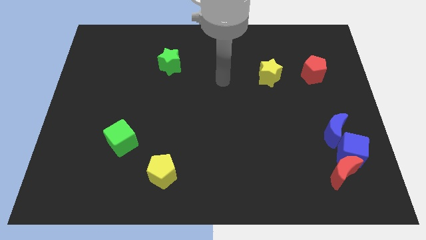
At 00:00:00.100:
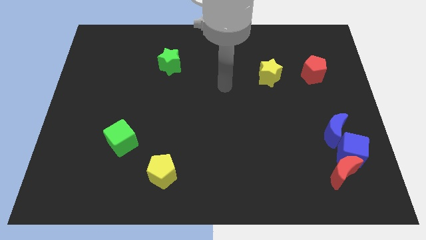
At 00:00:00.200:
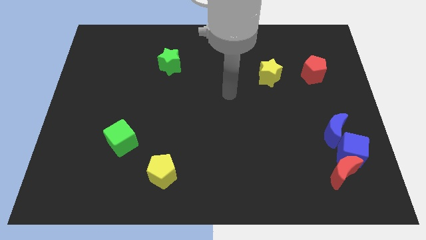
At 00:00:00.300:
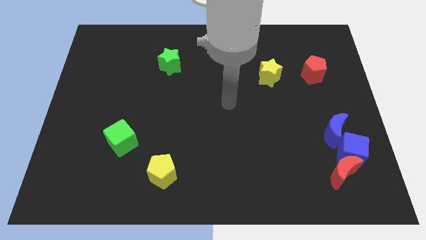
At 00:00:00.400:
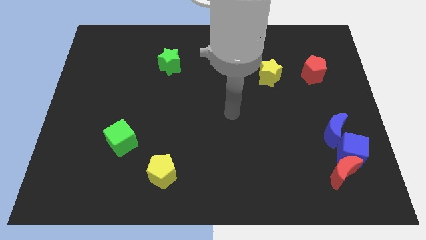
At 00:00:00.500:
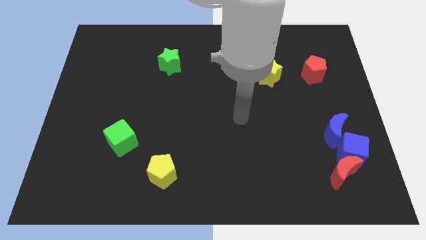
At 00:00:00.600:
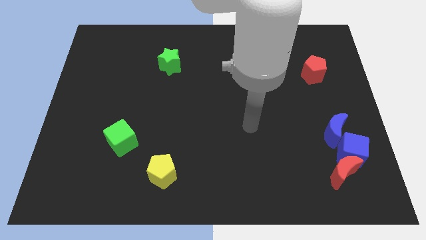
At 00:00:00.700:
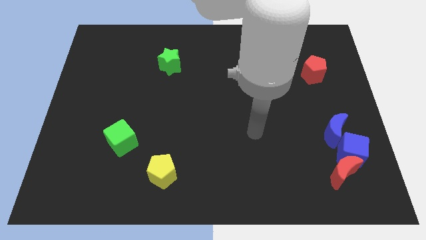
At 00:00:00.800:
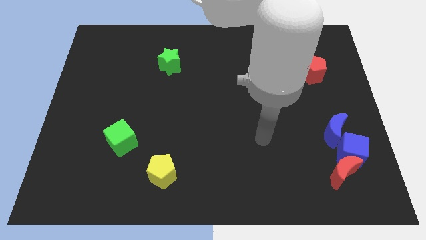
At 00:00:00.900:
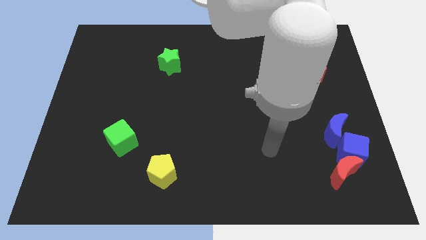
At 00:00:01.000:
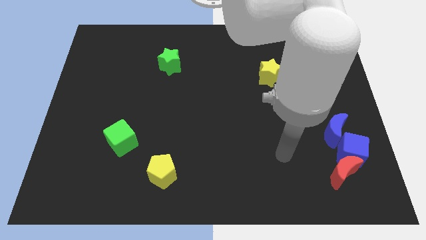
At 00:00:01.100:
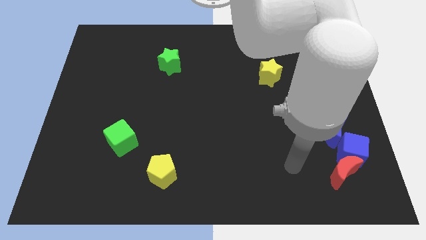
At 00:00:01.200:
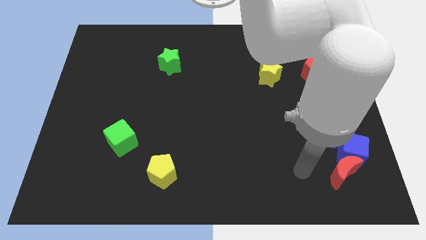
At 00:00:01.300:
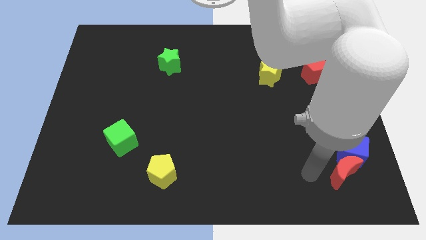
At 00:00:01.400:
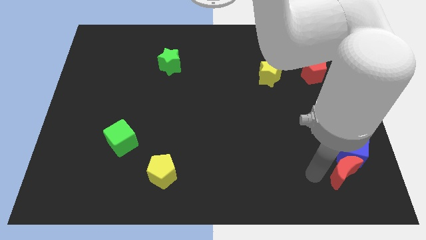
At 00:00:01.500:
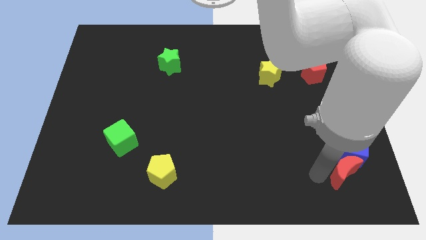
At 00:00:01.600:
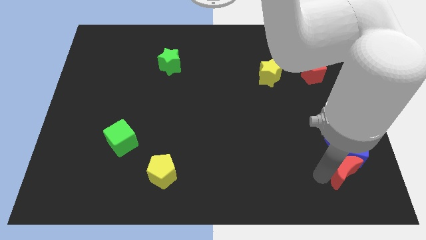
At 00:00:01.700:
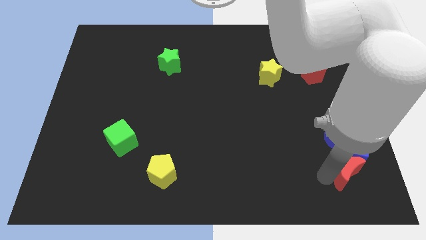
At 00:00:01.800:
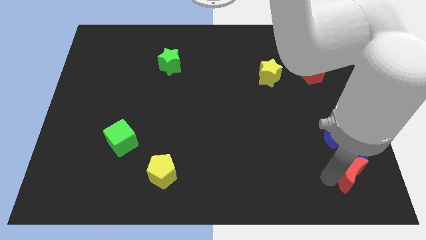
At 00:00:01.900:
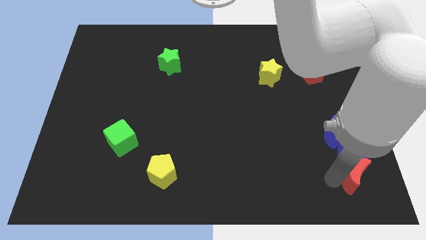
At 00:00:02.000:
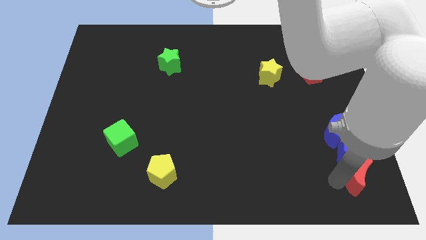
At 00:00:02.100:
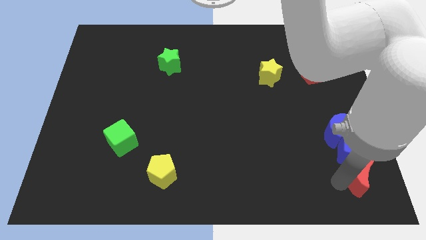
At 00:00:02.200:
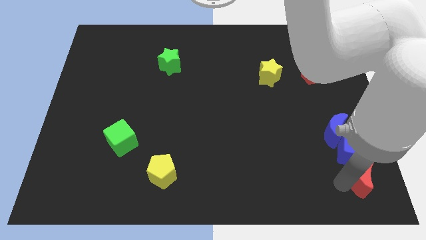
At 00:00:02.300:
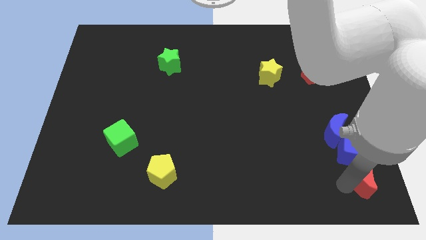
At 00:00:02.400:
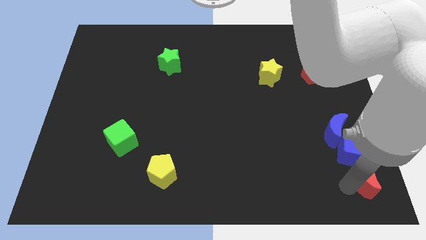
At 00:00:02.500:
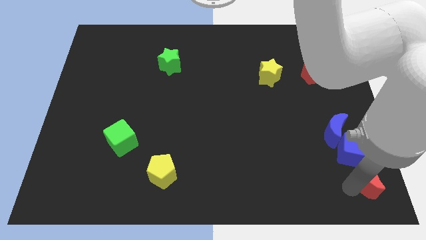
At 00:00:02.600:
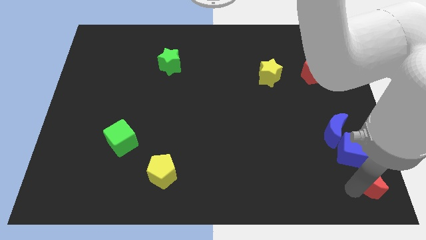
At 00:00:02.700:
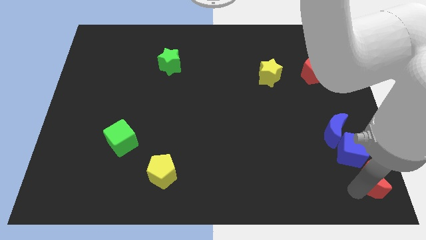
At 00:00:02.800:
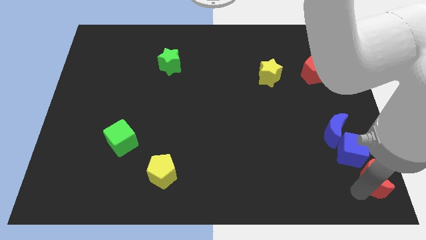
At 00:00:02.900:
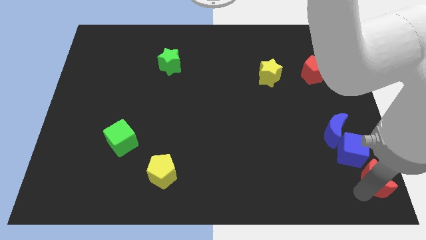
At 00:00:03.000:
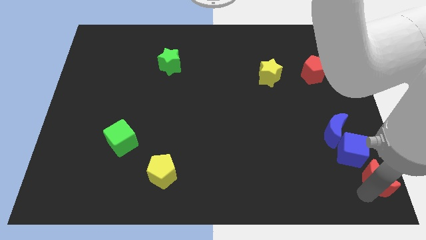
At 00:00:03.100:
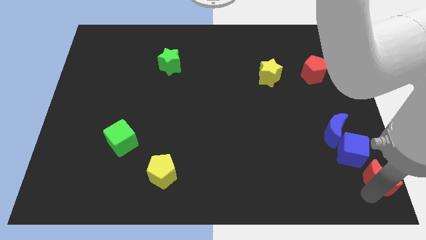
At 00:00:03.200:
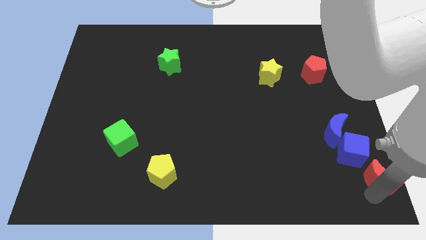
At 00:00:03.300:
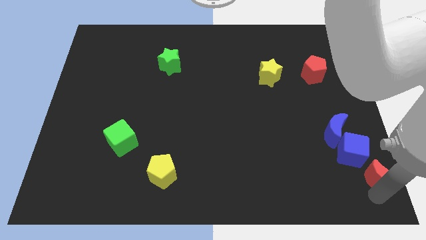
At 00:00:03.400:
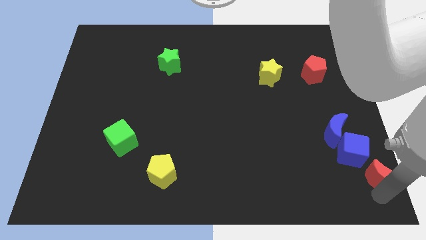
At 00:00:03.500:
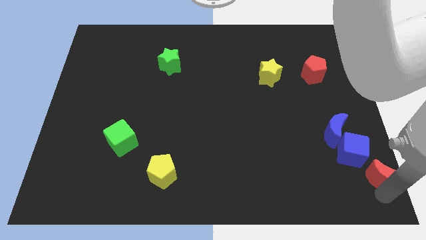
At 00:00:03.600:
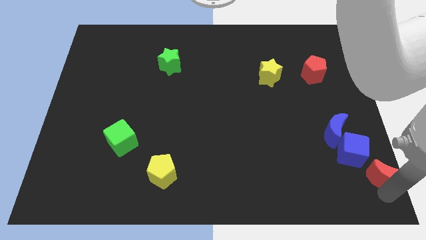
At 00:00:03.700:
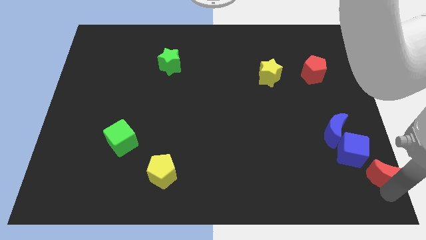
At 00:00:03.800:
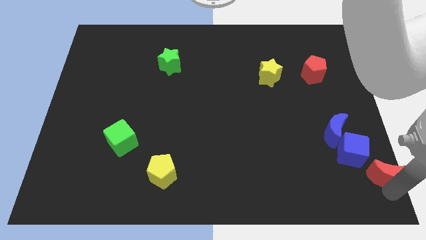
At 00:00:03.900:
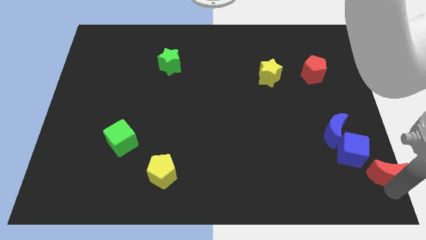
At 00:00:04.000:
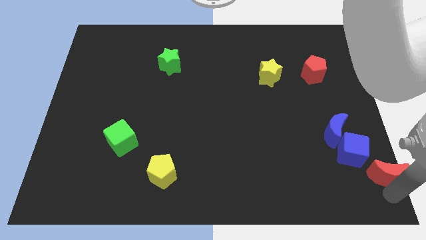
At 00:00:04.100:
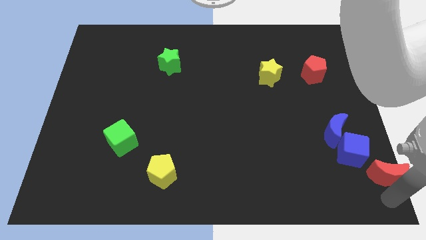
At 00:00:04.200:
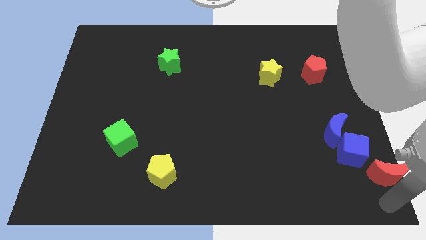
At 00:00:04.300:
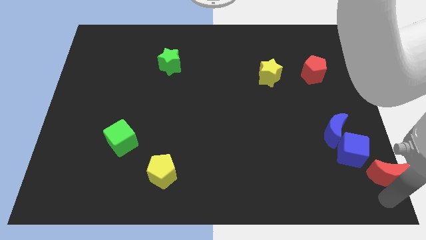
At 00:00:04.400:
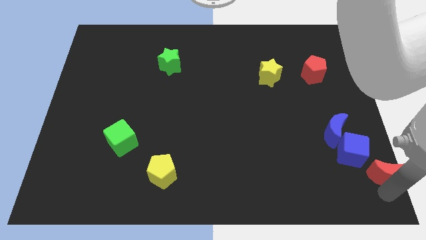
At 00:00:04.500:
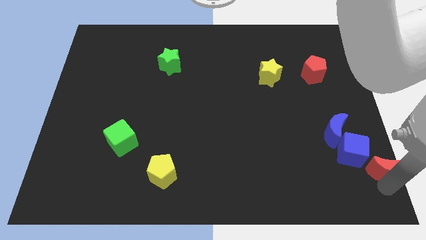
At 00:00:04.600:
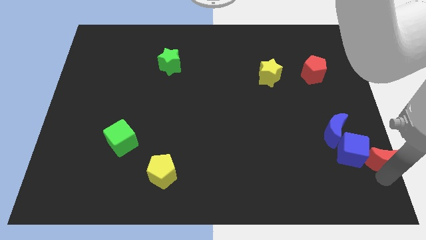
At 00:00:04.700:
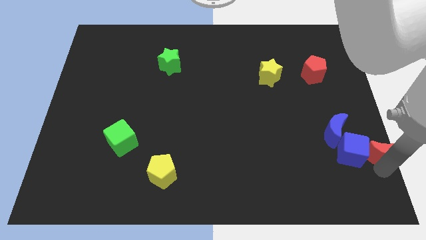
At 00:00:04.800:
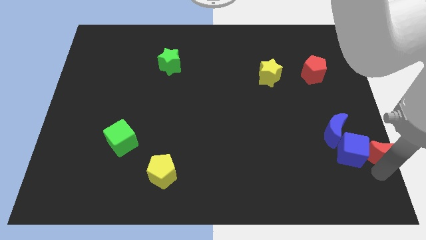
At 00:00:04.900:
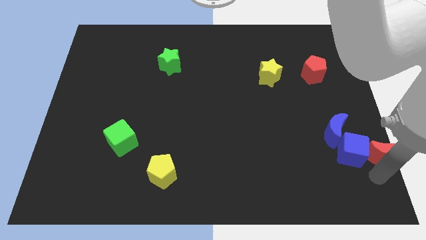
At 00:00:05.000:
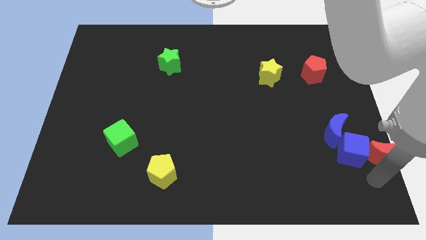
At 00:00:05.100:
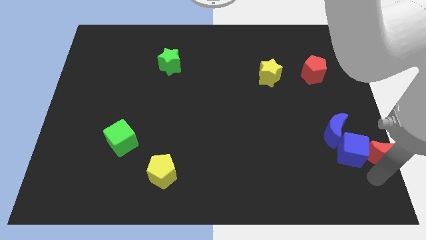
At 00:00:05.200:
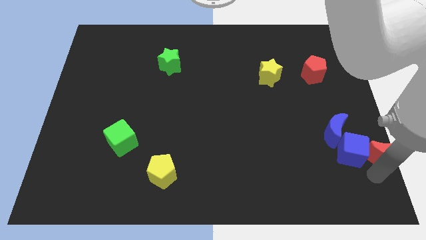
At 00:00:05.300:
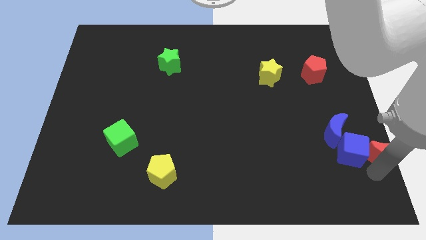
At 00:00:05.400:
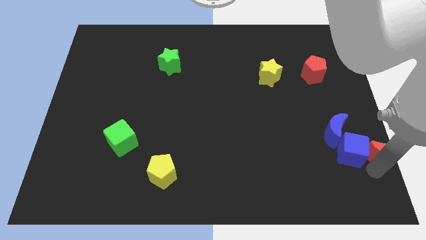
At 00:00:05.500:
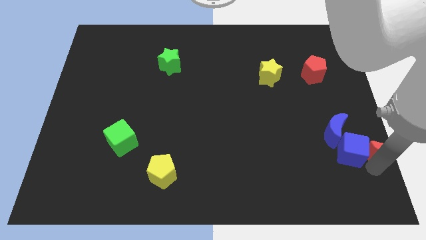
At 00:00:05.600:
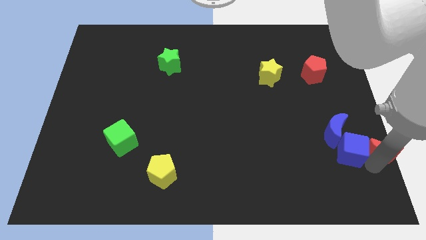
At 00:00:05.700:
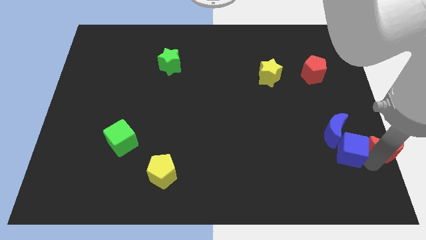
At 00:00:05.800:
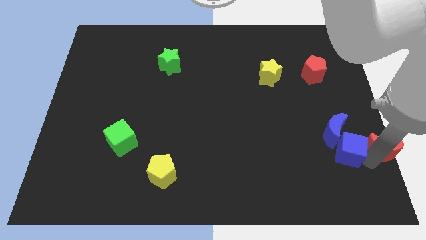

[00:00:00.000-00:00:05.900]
put the red moon to the center right
